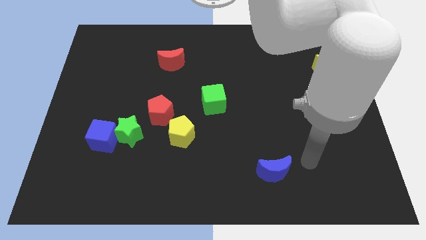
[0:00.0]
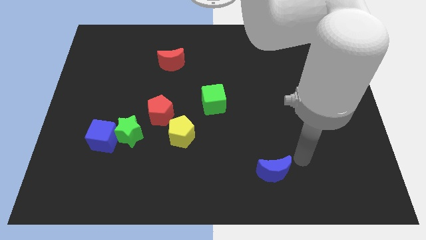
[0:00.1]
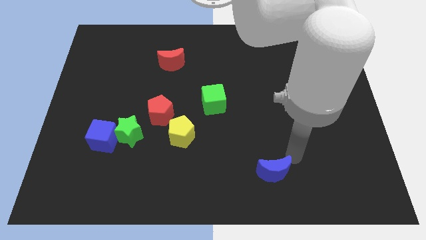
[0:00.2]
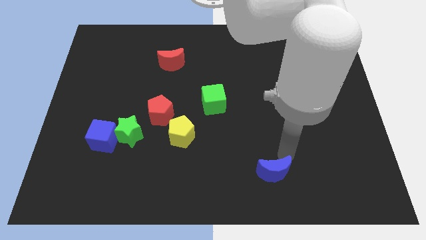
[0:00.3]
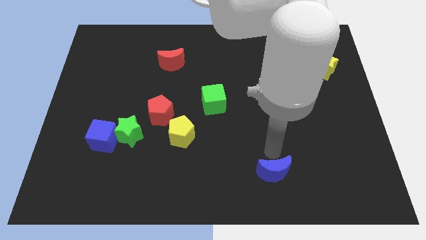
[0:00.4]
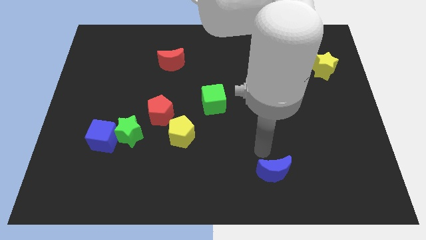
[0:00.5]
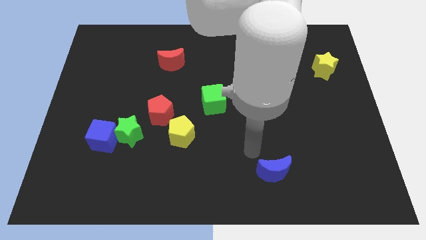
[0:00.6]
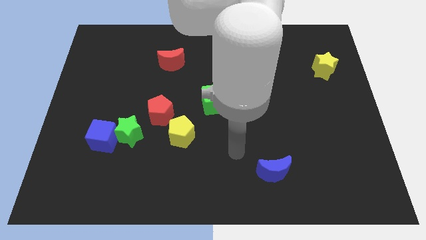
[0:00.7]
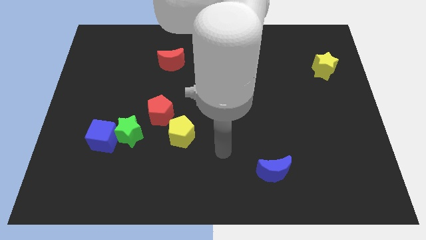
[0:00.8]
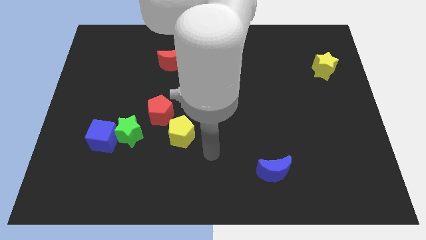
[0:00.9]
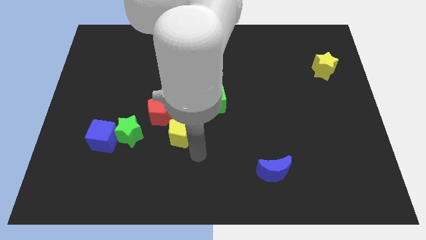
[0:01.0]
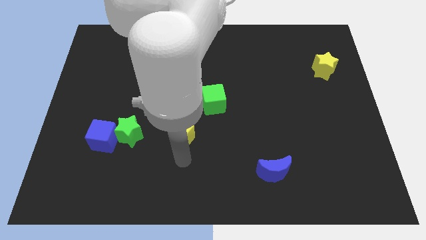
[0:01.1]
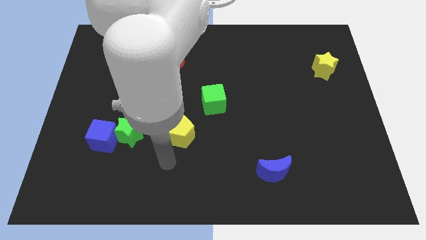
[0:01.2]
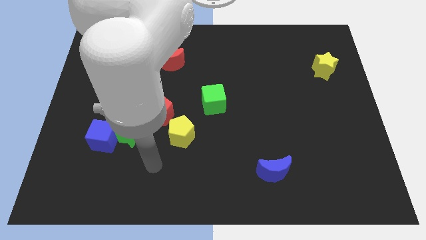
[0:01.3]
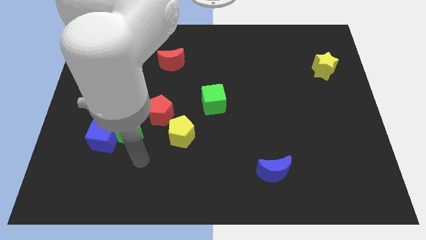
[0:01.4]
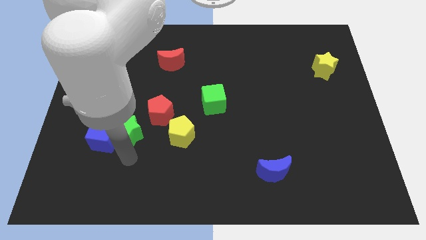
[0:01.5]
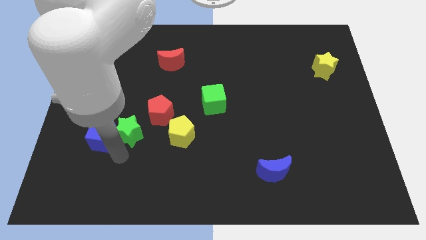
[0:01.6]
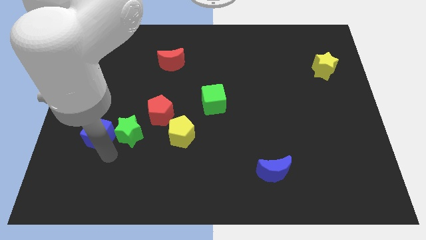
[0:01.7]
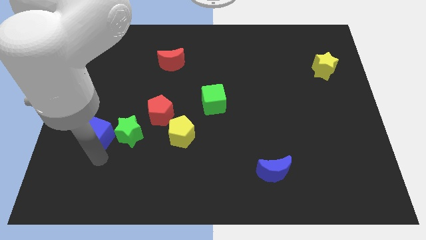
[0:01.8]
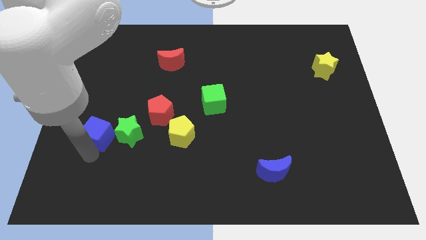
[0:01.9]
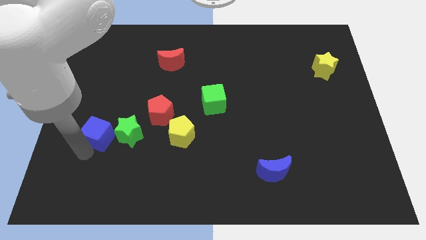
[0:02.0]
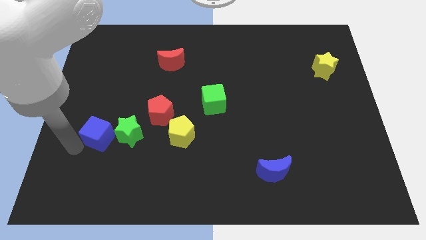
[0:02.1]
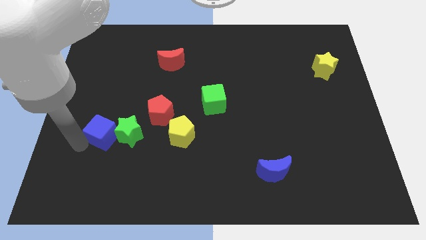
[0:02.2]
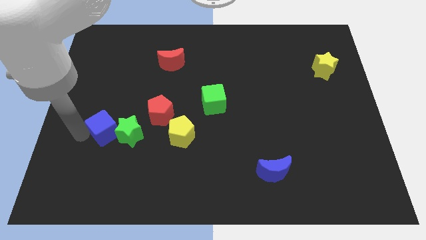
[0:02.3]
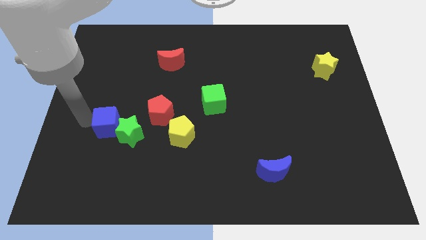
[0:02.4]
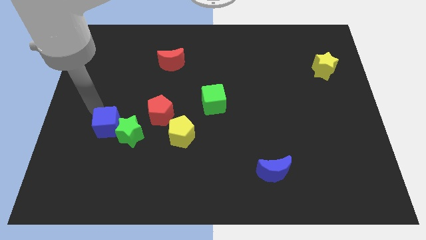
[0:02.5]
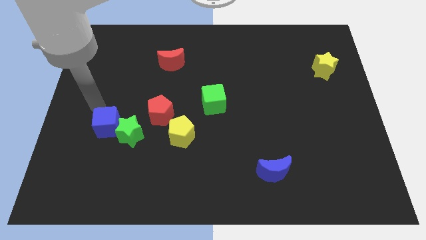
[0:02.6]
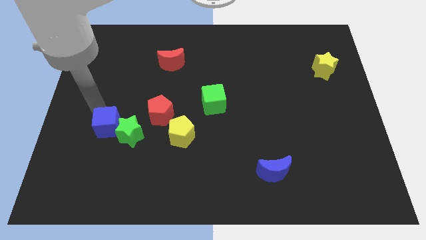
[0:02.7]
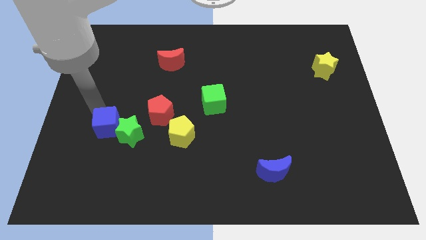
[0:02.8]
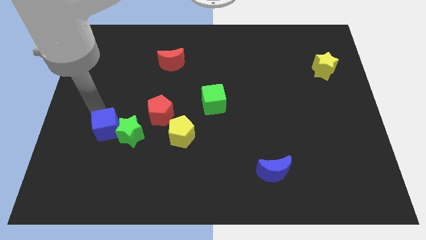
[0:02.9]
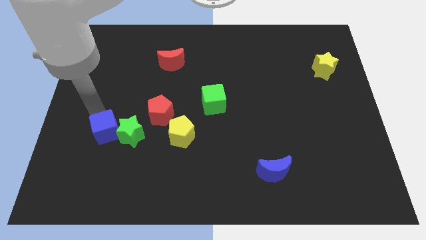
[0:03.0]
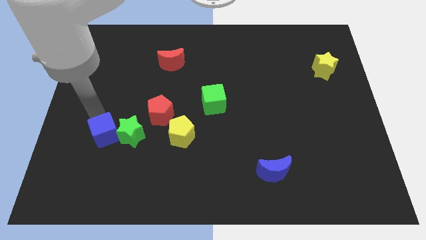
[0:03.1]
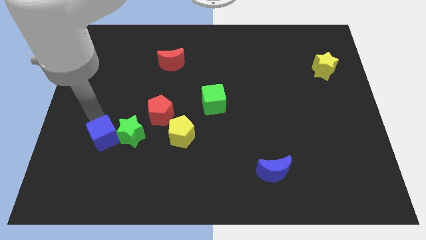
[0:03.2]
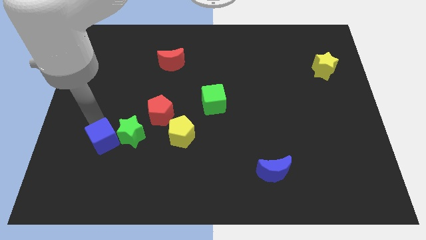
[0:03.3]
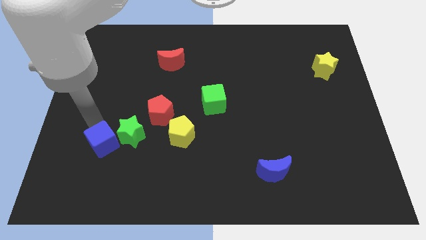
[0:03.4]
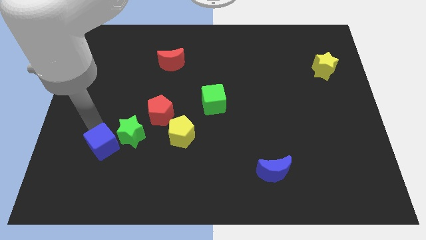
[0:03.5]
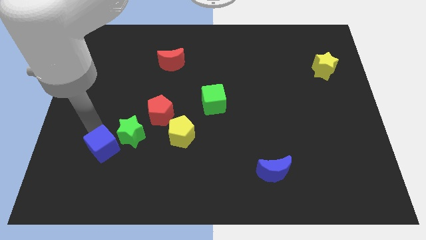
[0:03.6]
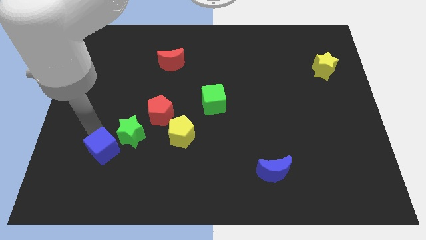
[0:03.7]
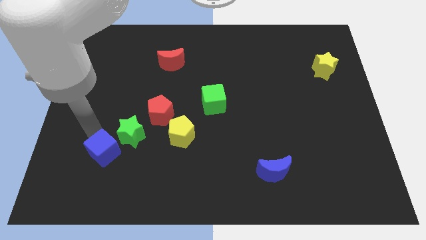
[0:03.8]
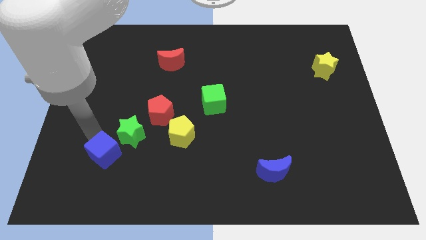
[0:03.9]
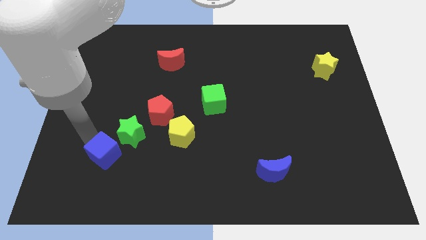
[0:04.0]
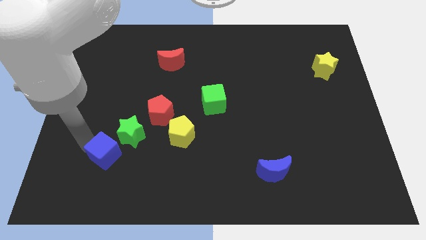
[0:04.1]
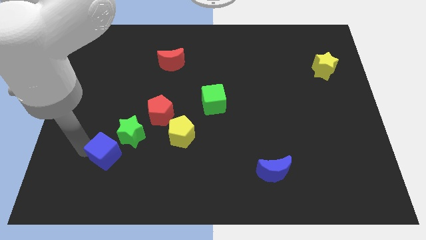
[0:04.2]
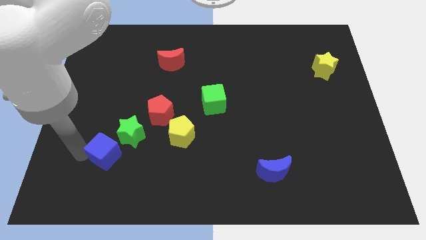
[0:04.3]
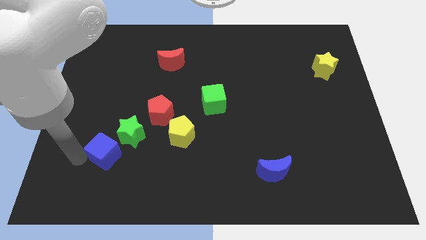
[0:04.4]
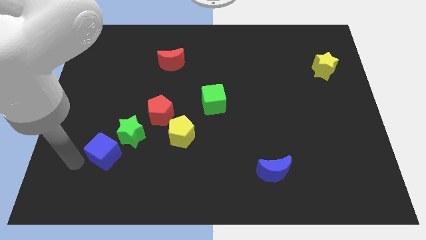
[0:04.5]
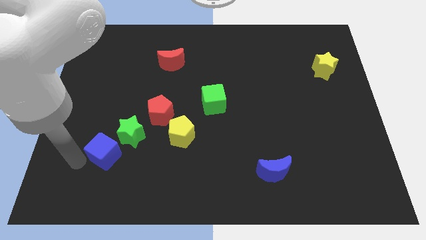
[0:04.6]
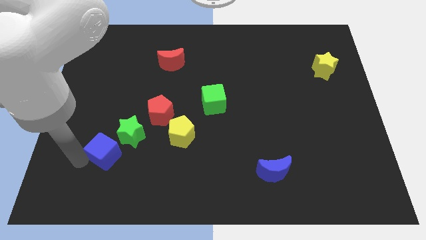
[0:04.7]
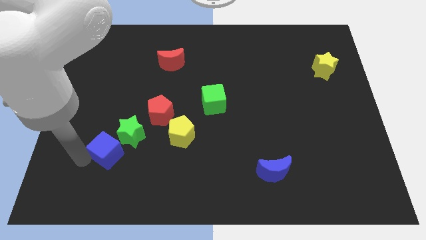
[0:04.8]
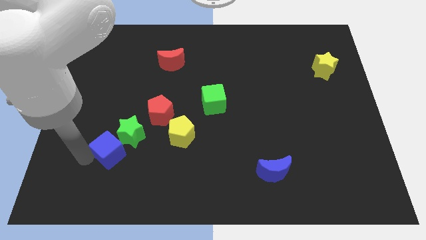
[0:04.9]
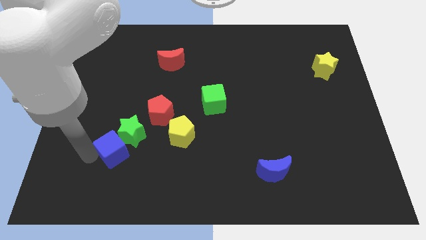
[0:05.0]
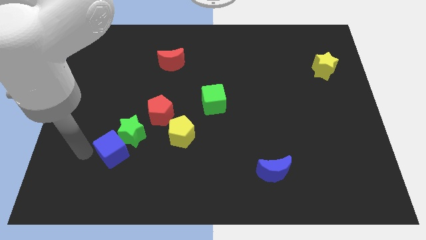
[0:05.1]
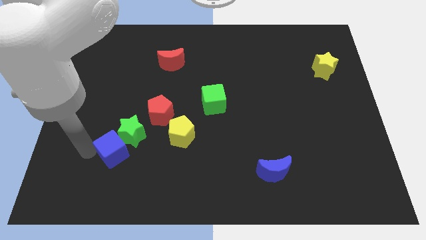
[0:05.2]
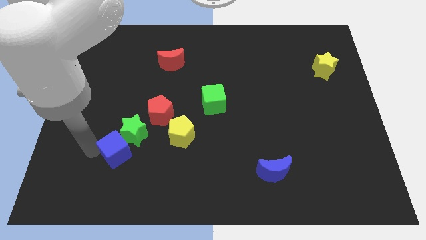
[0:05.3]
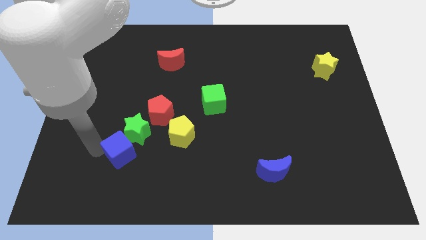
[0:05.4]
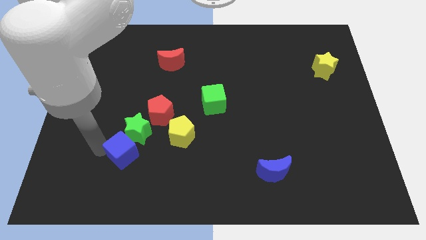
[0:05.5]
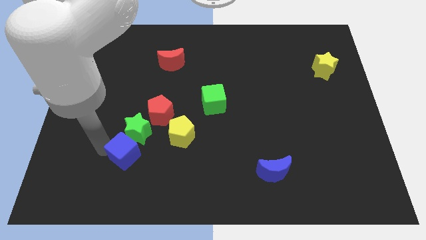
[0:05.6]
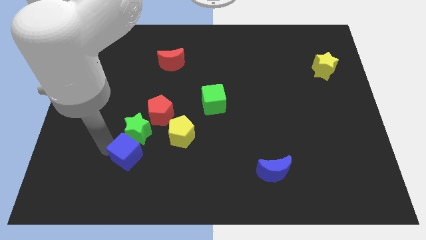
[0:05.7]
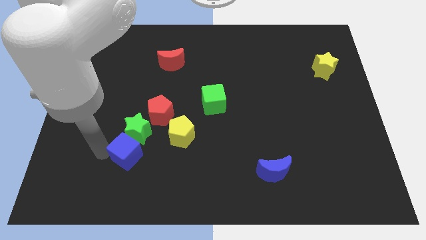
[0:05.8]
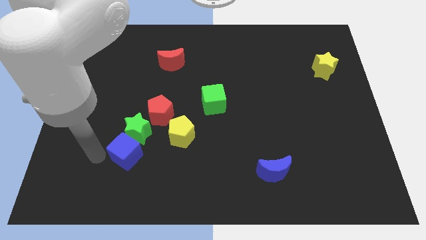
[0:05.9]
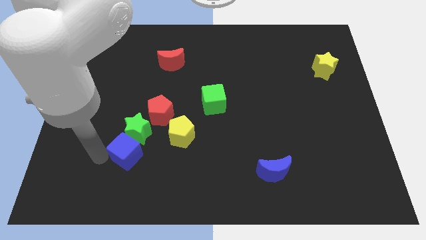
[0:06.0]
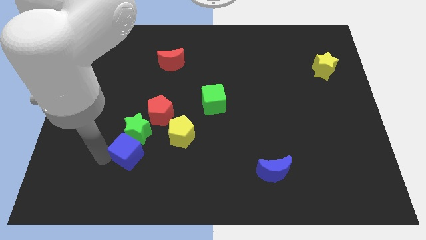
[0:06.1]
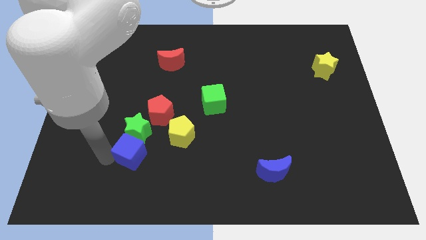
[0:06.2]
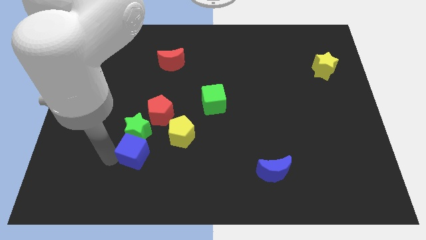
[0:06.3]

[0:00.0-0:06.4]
slide the blue cube to the bottom side of the red pentagon

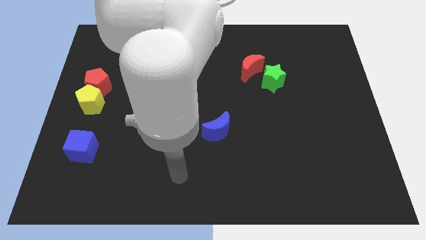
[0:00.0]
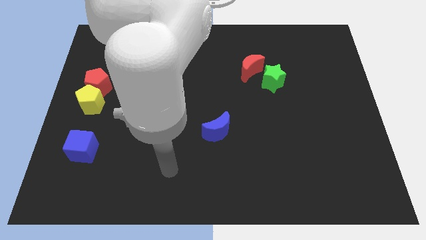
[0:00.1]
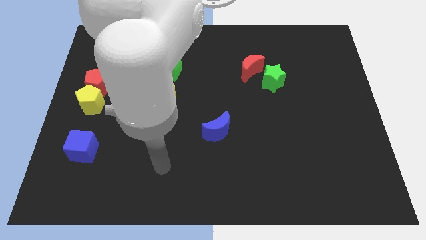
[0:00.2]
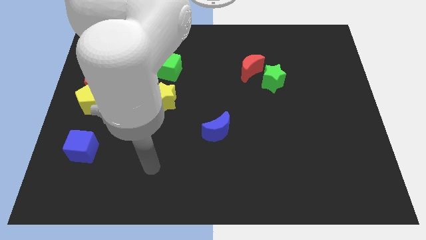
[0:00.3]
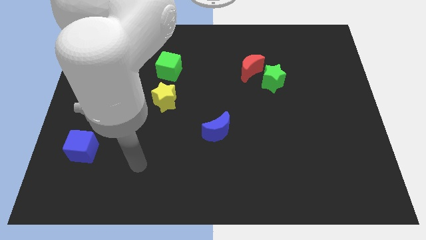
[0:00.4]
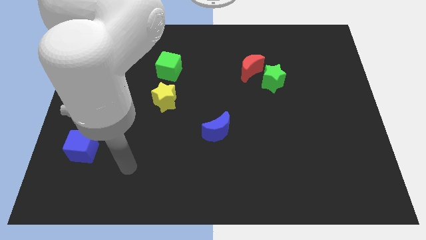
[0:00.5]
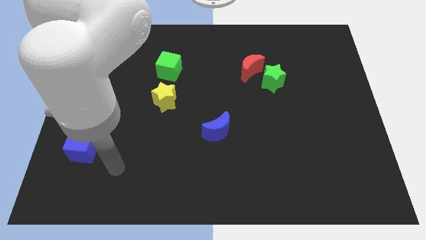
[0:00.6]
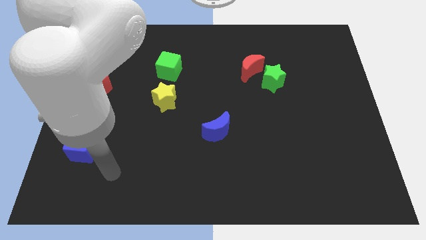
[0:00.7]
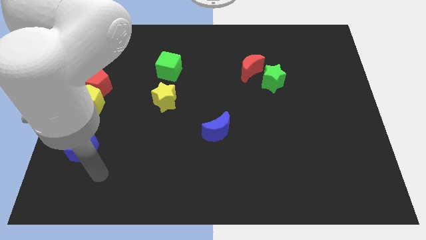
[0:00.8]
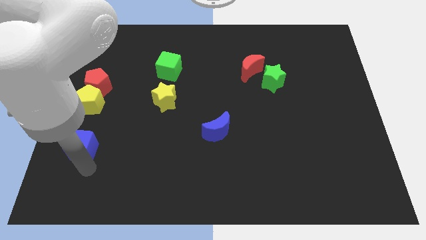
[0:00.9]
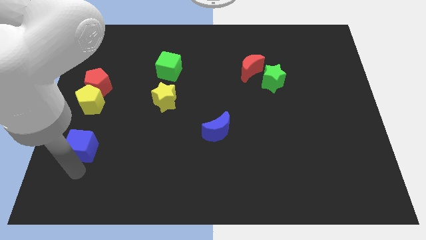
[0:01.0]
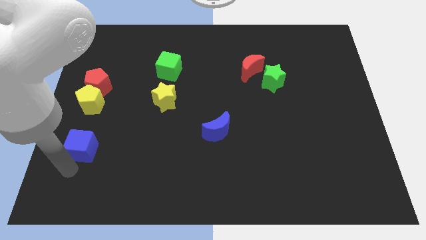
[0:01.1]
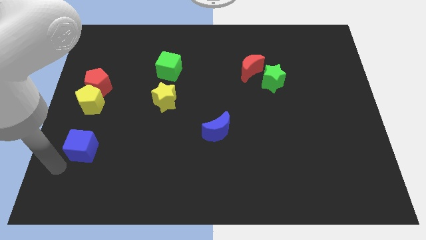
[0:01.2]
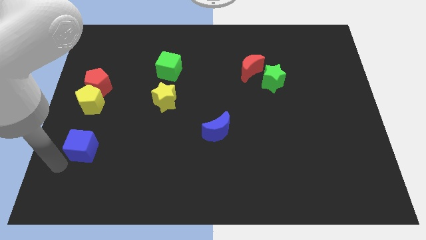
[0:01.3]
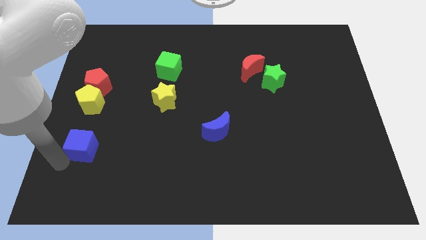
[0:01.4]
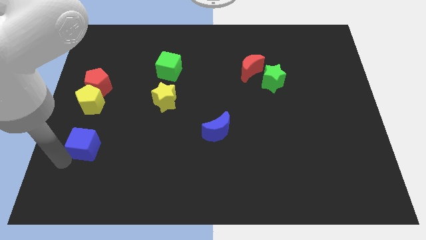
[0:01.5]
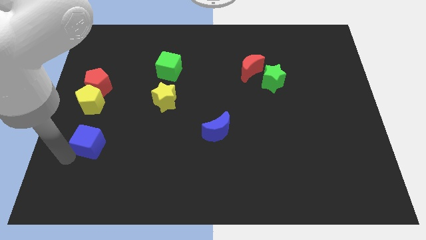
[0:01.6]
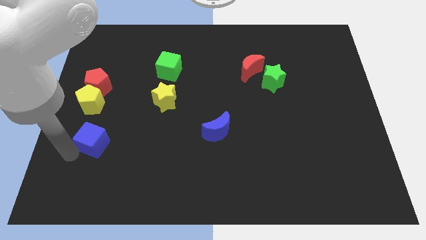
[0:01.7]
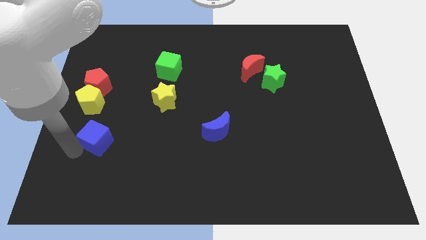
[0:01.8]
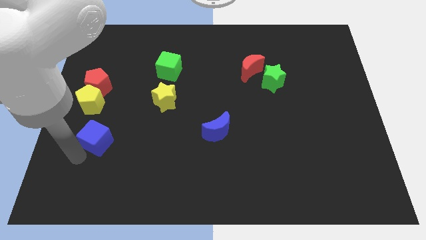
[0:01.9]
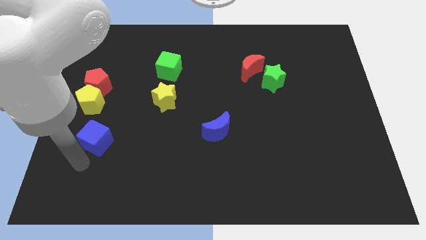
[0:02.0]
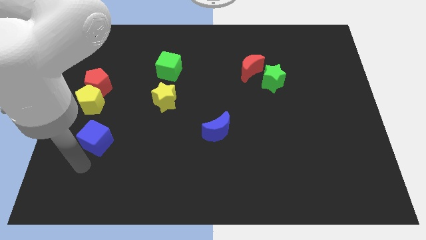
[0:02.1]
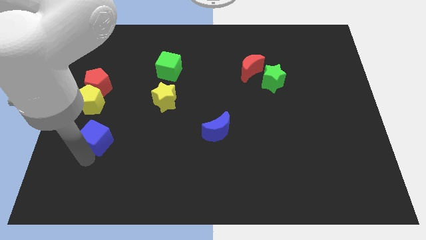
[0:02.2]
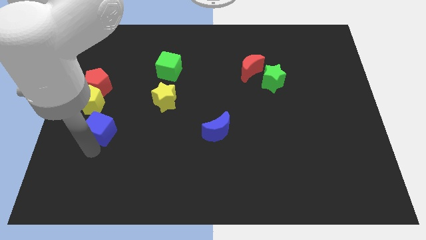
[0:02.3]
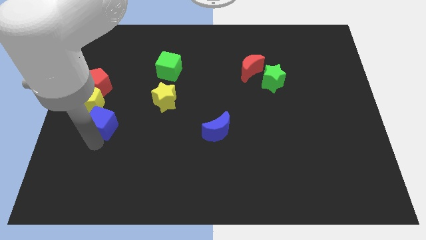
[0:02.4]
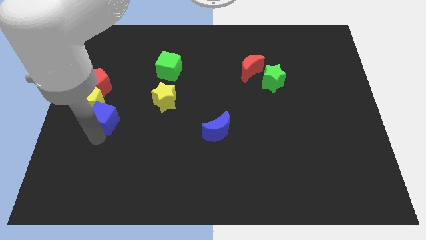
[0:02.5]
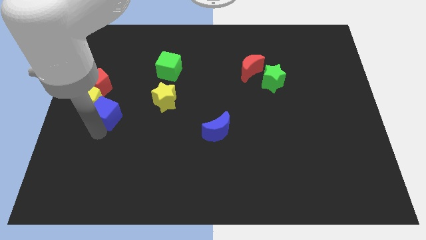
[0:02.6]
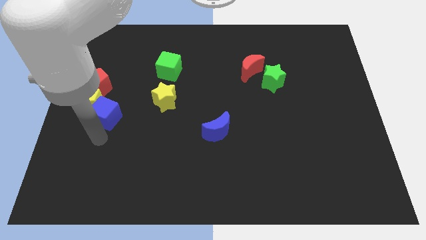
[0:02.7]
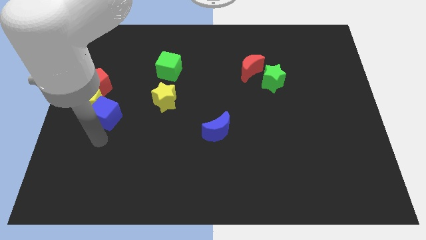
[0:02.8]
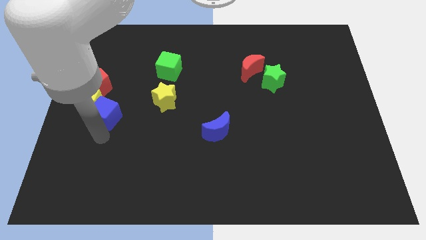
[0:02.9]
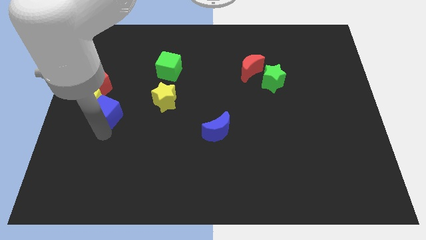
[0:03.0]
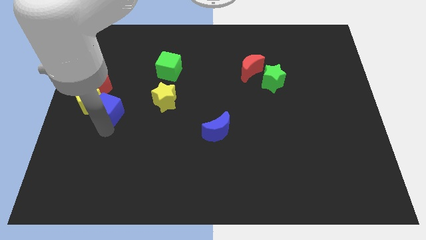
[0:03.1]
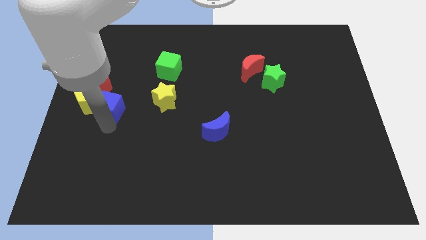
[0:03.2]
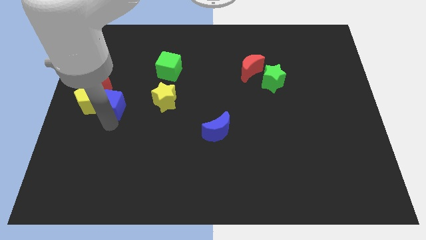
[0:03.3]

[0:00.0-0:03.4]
slide the blue cube to the top right side of the yellow pentagon
